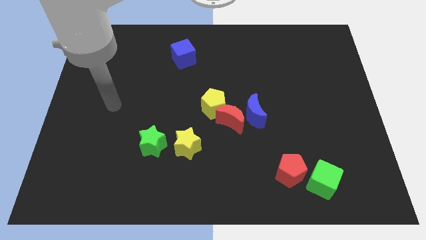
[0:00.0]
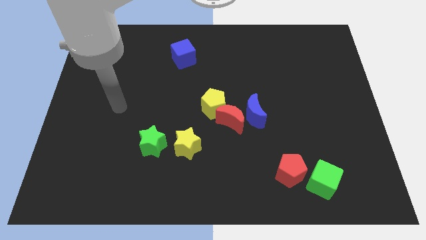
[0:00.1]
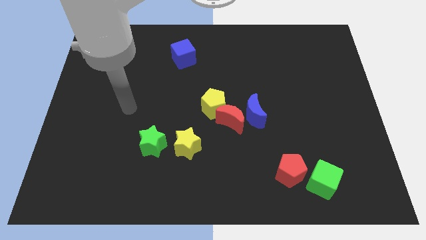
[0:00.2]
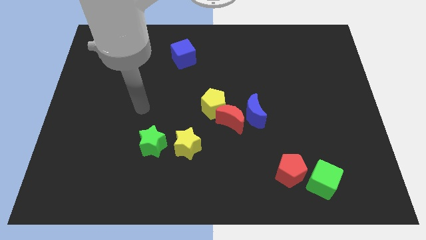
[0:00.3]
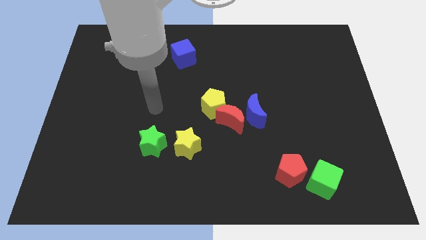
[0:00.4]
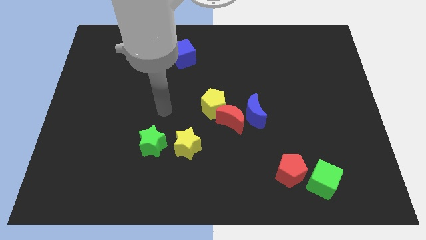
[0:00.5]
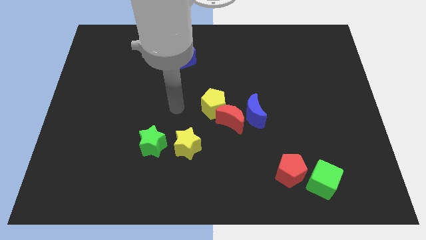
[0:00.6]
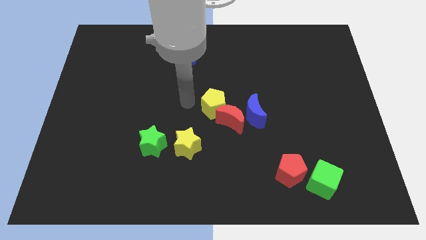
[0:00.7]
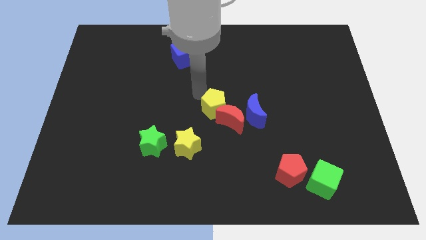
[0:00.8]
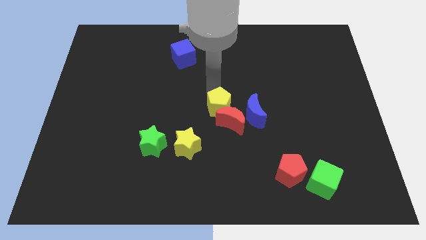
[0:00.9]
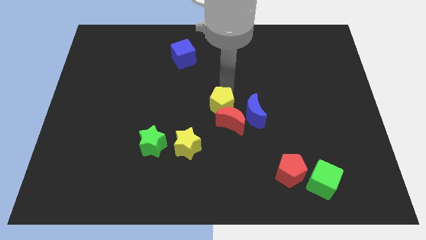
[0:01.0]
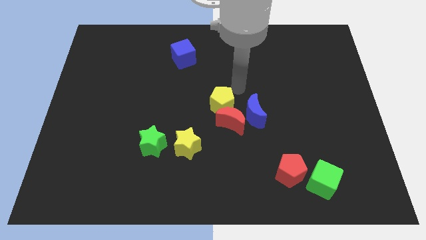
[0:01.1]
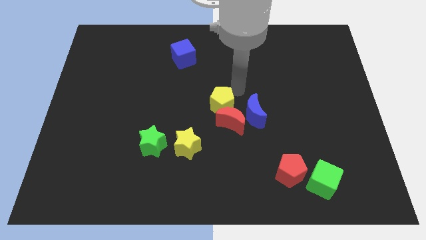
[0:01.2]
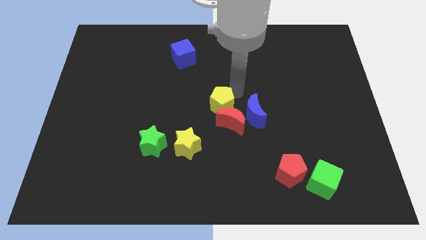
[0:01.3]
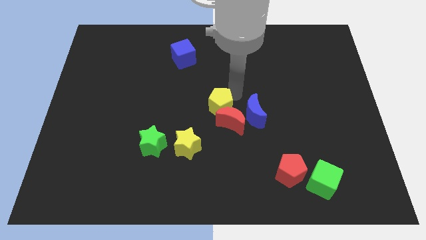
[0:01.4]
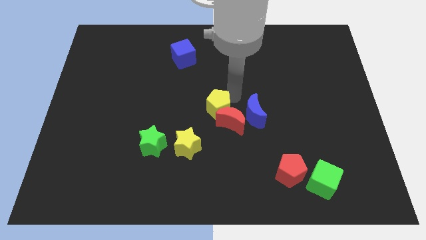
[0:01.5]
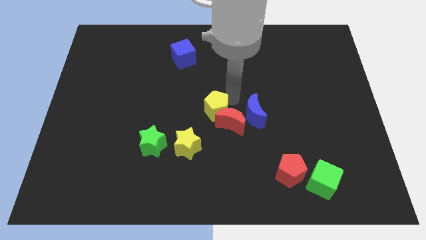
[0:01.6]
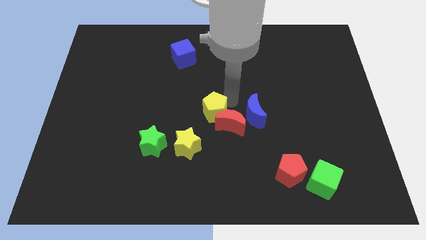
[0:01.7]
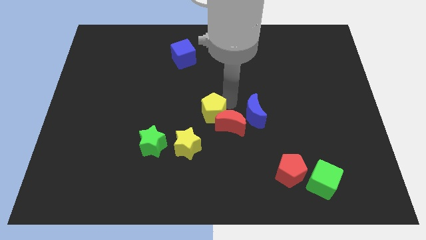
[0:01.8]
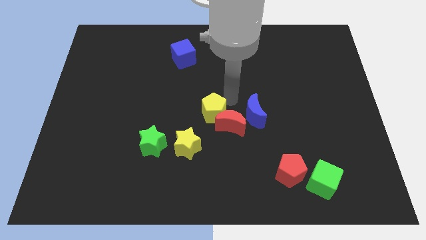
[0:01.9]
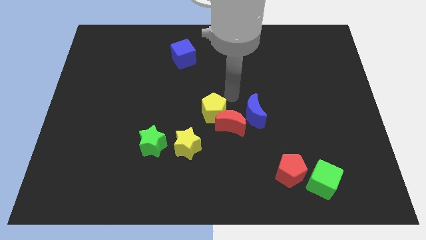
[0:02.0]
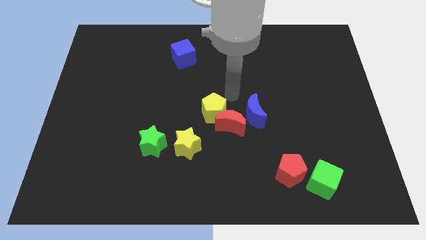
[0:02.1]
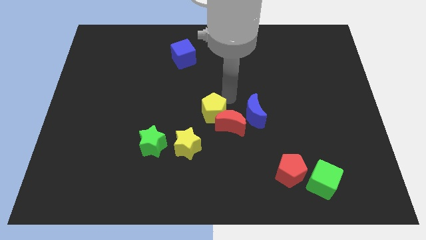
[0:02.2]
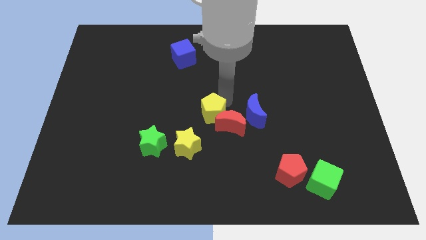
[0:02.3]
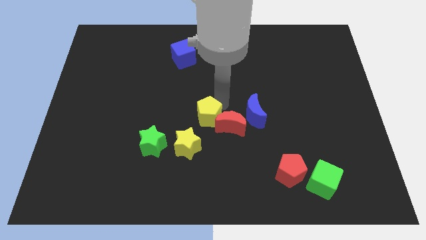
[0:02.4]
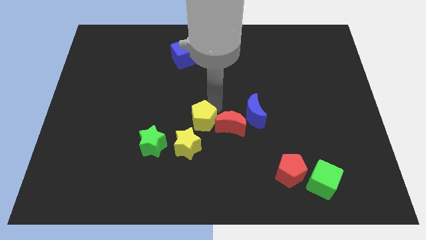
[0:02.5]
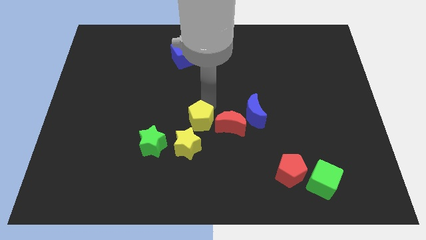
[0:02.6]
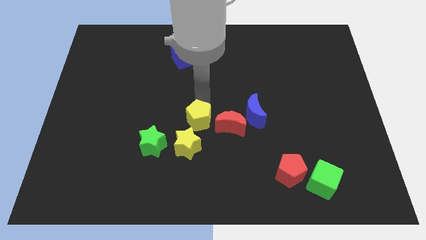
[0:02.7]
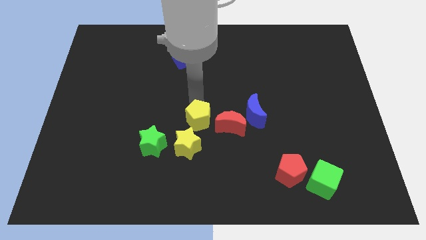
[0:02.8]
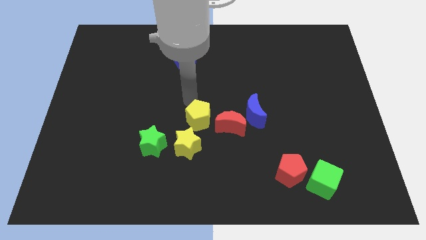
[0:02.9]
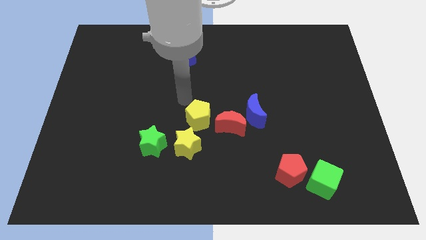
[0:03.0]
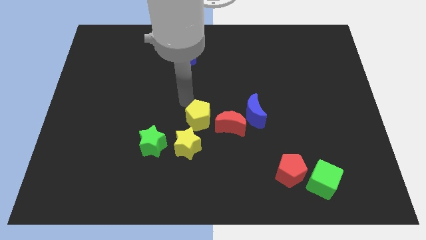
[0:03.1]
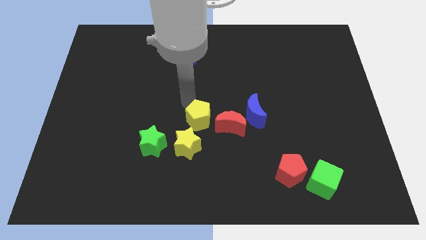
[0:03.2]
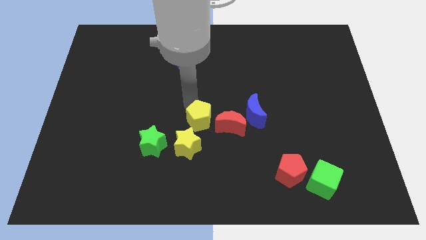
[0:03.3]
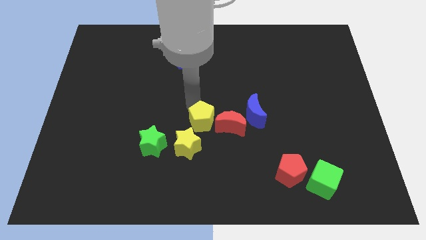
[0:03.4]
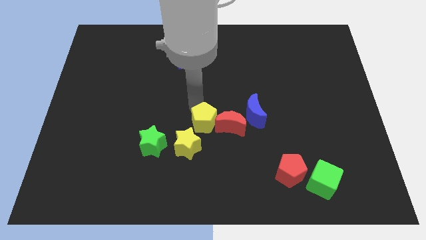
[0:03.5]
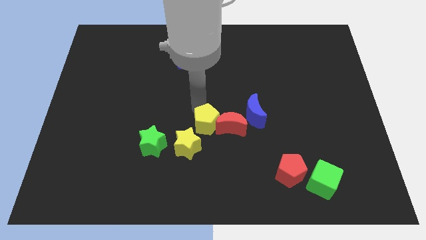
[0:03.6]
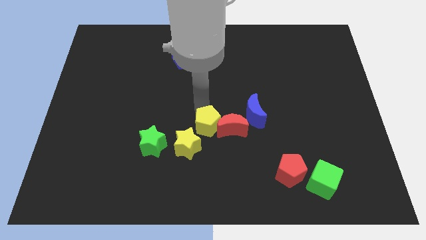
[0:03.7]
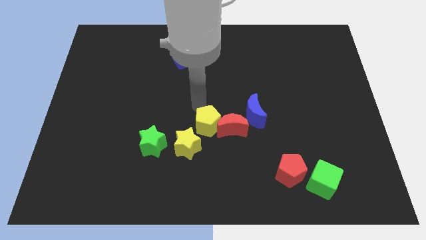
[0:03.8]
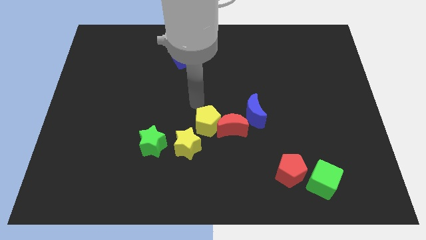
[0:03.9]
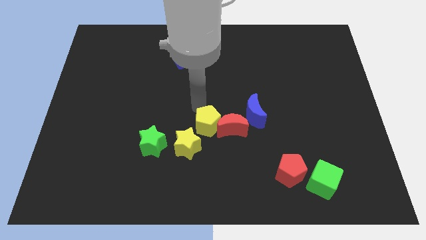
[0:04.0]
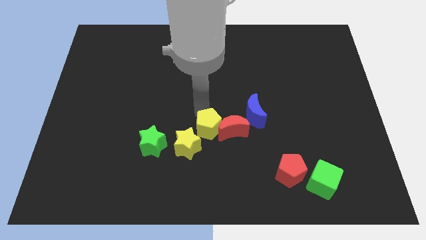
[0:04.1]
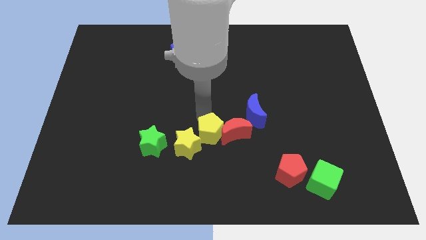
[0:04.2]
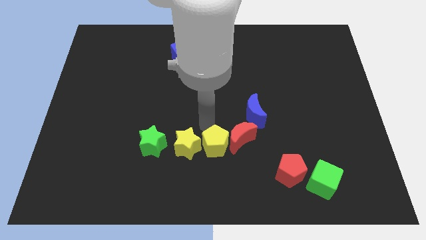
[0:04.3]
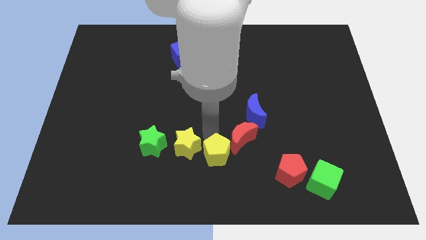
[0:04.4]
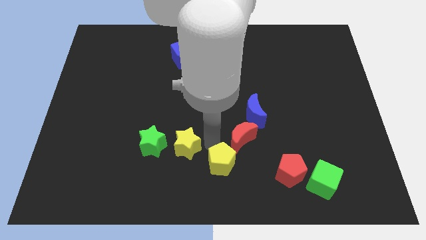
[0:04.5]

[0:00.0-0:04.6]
move the yellow pentagon below the red moon

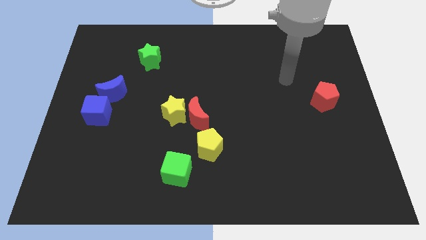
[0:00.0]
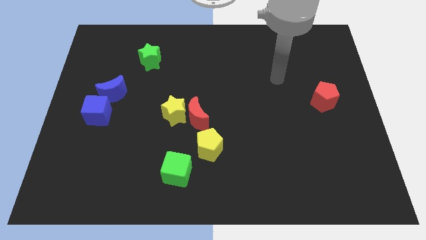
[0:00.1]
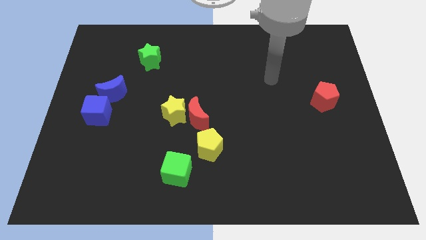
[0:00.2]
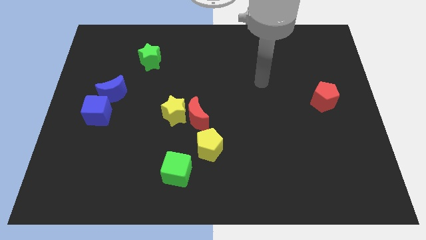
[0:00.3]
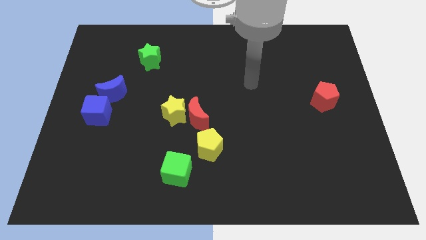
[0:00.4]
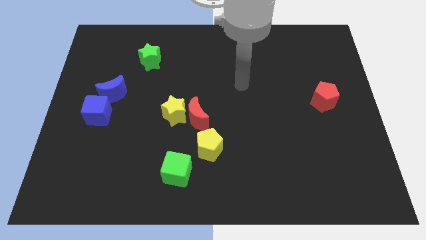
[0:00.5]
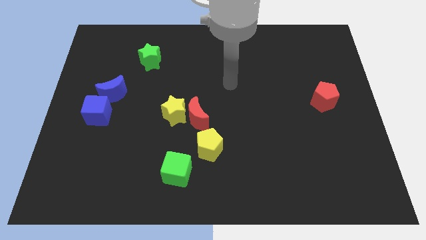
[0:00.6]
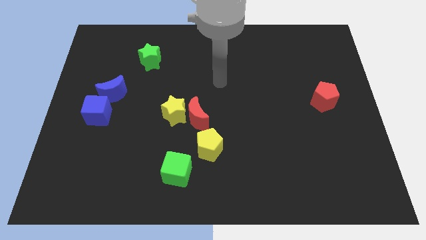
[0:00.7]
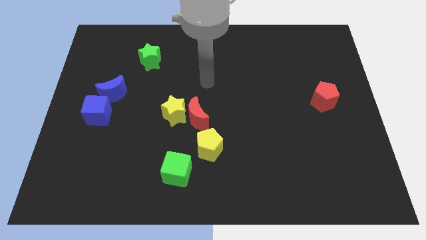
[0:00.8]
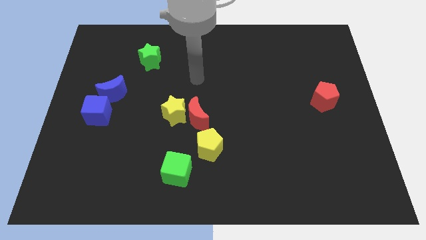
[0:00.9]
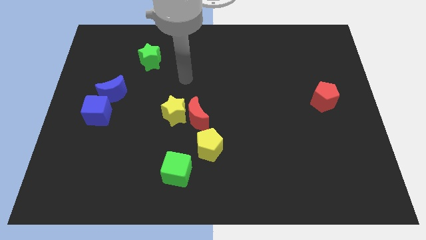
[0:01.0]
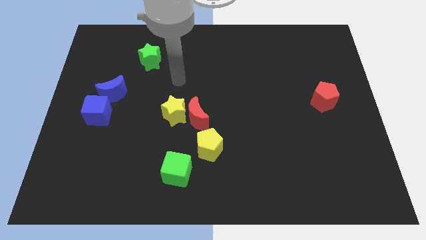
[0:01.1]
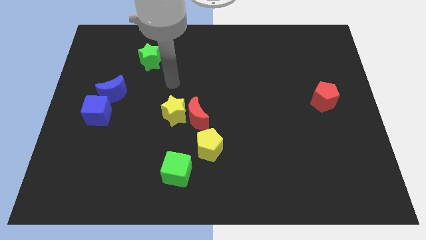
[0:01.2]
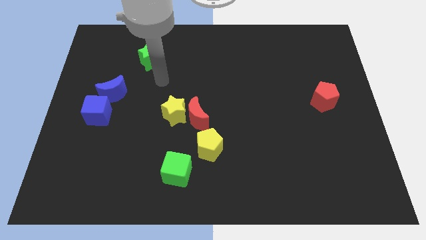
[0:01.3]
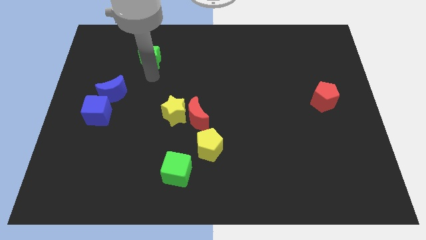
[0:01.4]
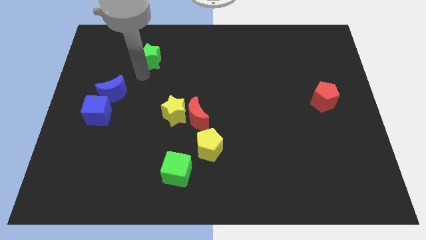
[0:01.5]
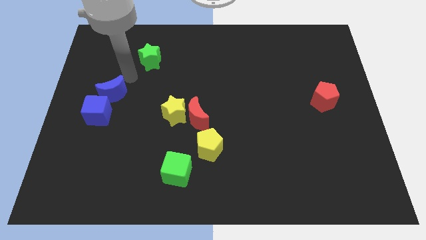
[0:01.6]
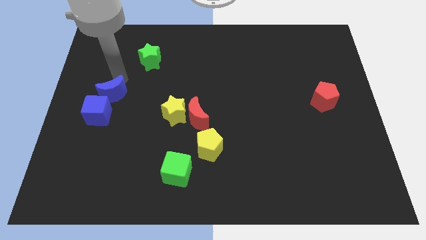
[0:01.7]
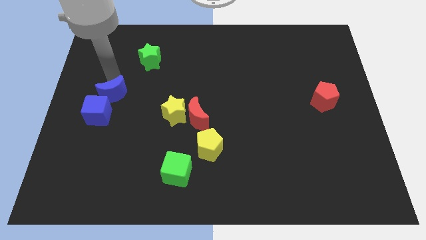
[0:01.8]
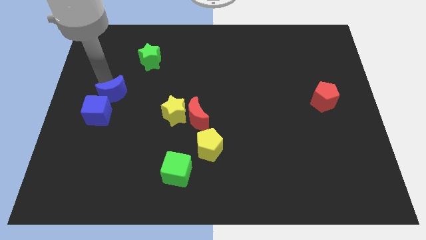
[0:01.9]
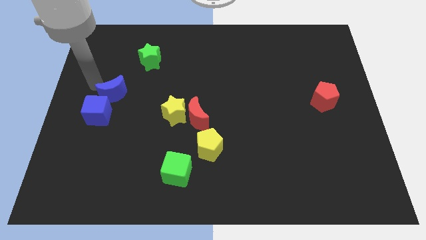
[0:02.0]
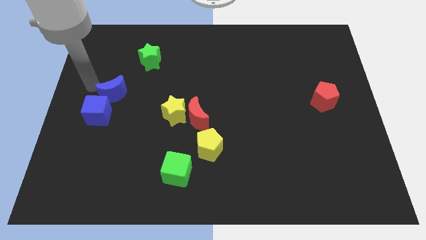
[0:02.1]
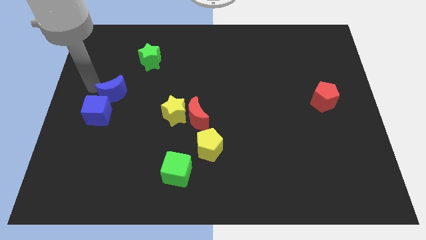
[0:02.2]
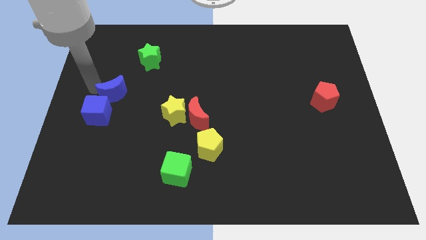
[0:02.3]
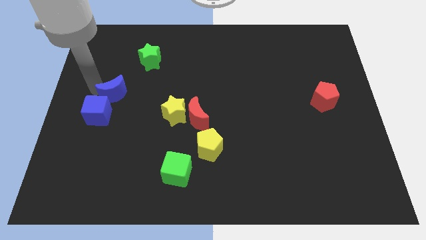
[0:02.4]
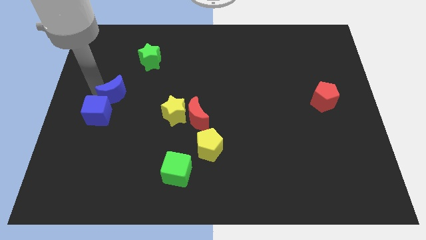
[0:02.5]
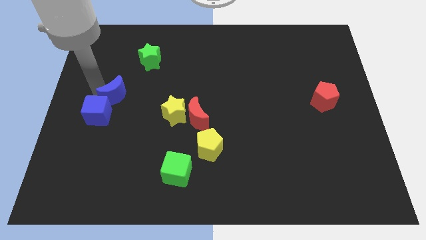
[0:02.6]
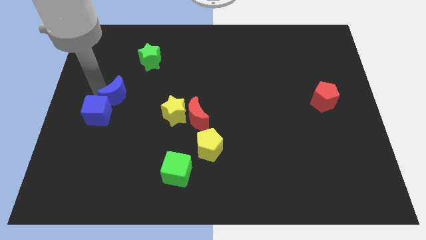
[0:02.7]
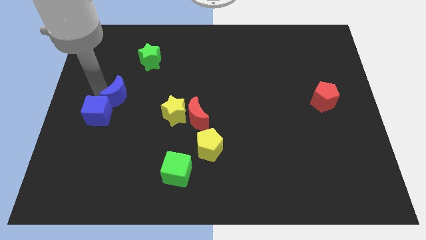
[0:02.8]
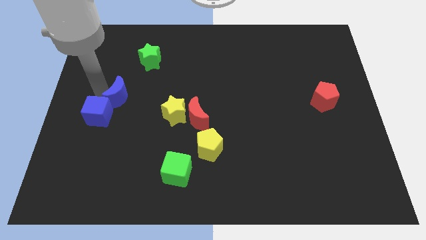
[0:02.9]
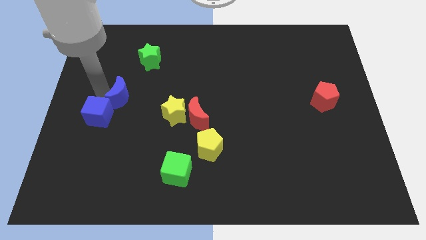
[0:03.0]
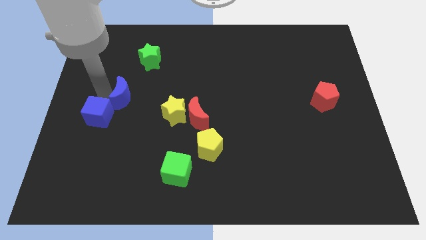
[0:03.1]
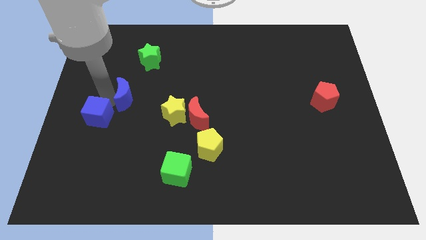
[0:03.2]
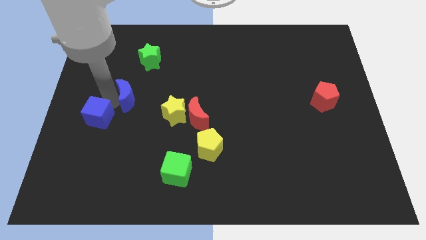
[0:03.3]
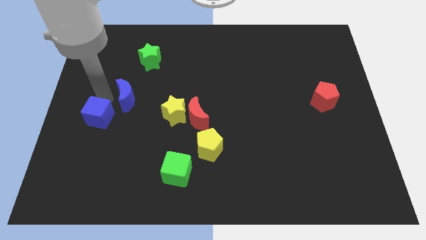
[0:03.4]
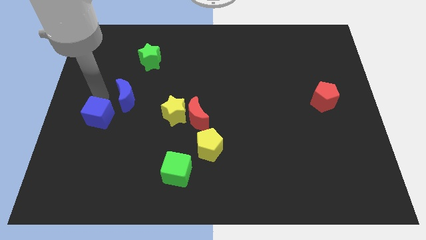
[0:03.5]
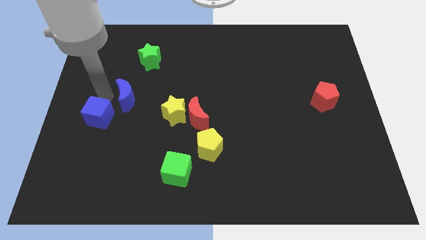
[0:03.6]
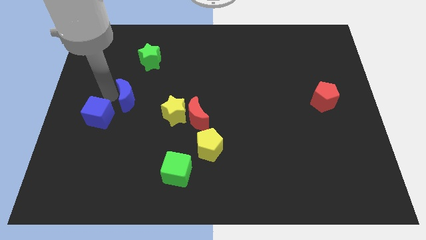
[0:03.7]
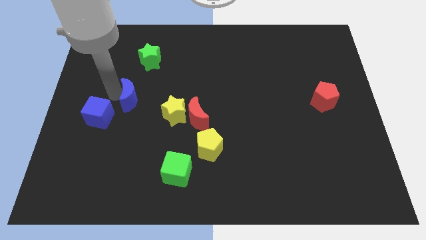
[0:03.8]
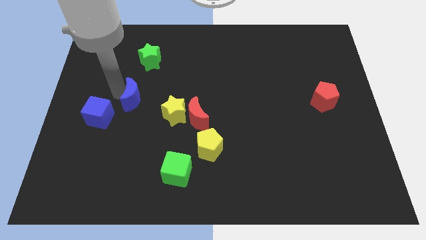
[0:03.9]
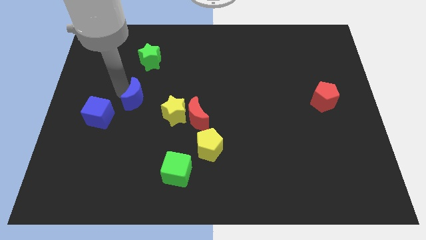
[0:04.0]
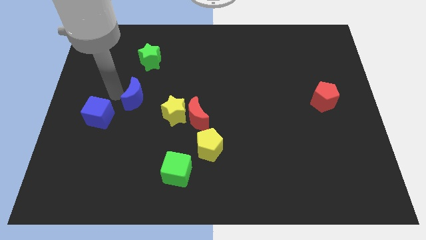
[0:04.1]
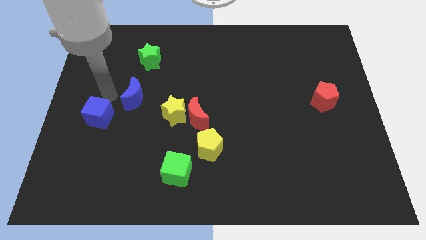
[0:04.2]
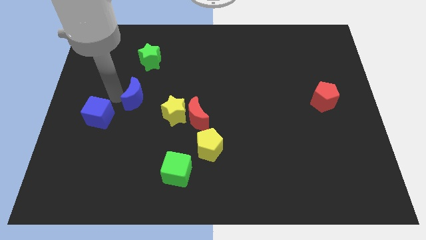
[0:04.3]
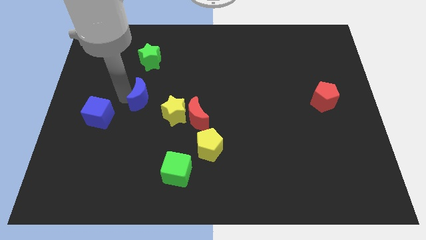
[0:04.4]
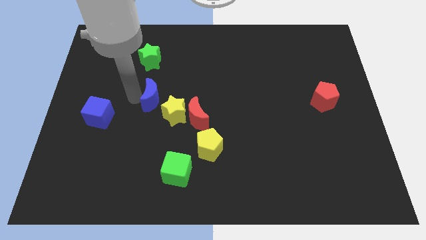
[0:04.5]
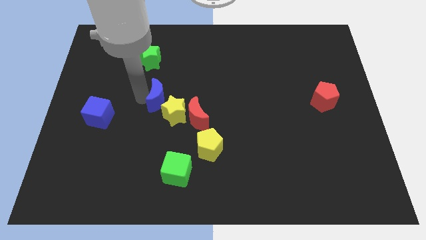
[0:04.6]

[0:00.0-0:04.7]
put the blue moon diagonally up and to the left of the red moon
